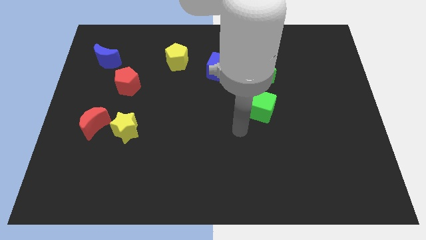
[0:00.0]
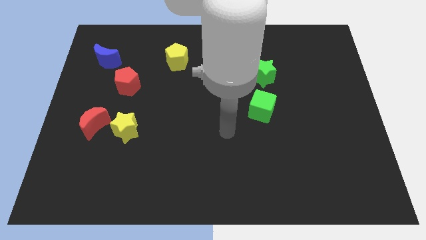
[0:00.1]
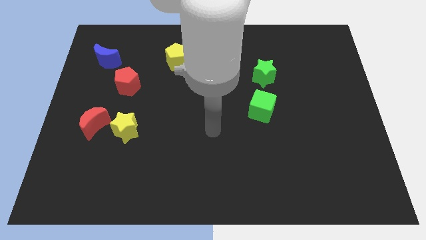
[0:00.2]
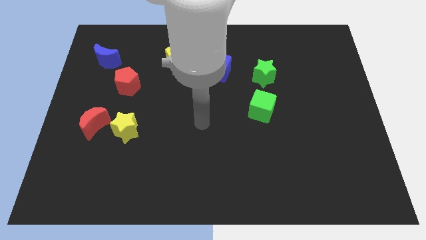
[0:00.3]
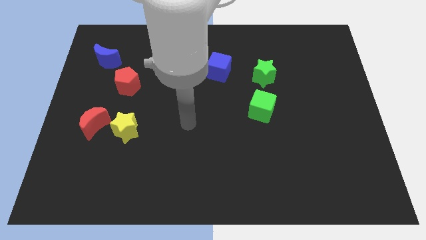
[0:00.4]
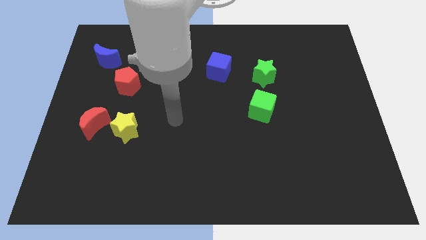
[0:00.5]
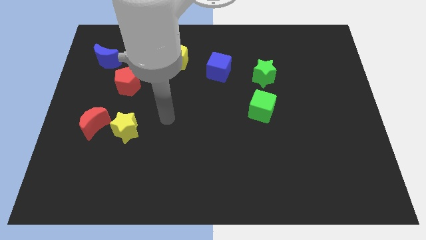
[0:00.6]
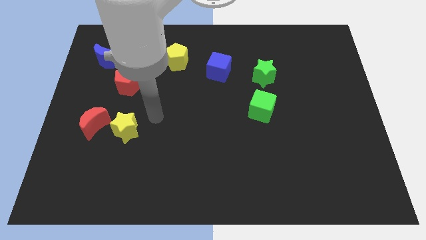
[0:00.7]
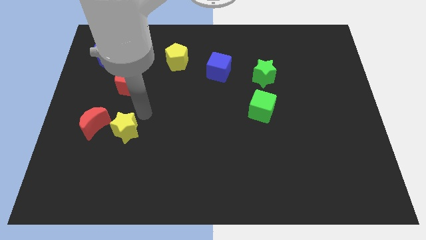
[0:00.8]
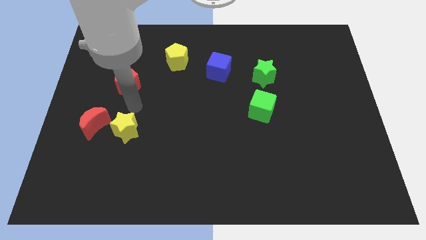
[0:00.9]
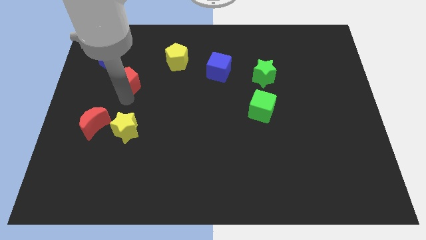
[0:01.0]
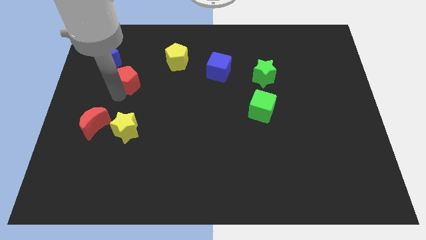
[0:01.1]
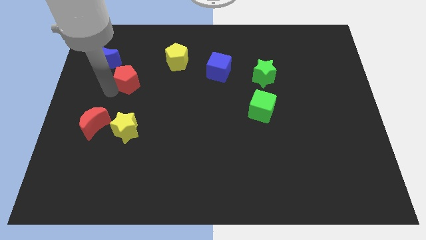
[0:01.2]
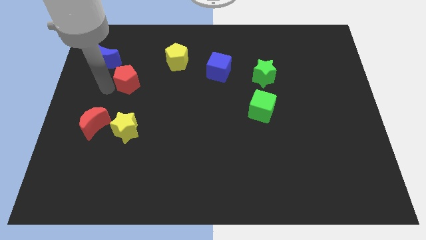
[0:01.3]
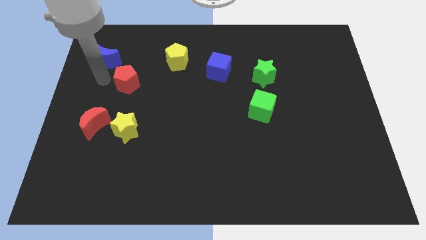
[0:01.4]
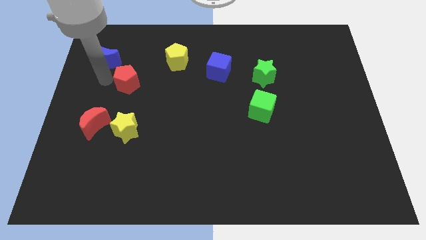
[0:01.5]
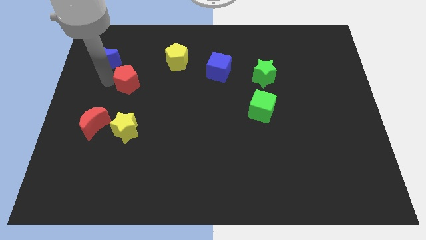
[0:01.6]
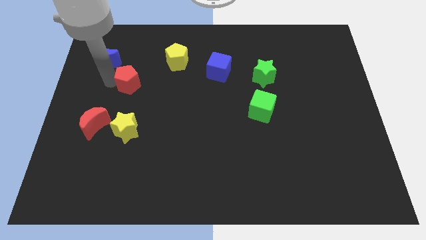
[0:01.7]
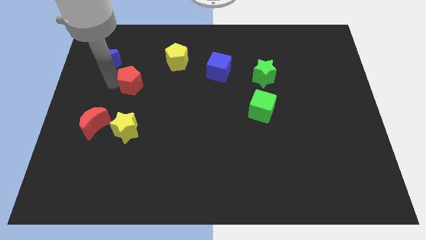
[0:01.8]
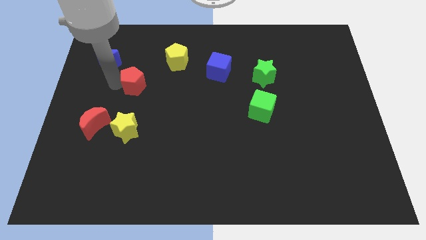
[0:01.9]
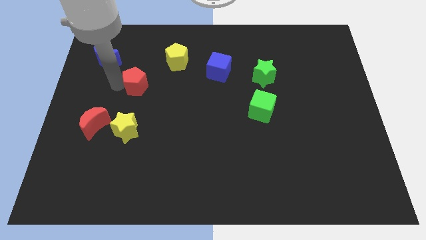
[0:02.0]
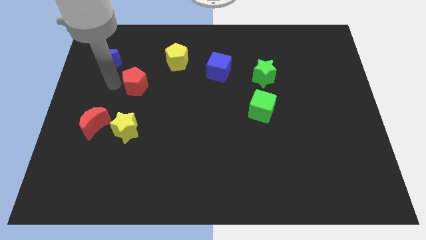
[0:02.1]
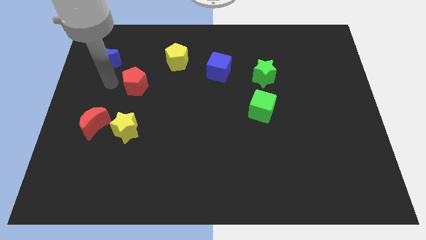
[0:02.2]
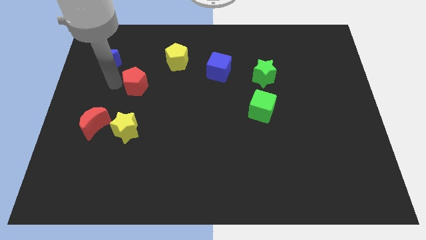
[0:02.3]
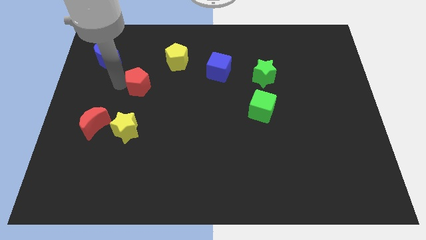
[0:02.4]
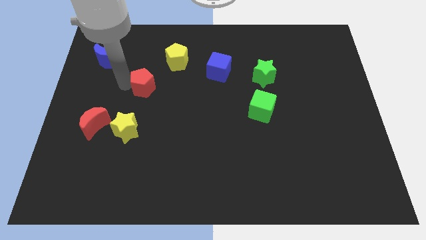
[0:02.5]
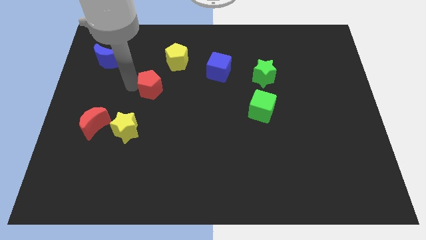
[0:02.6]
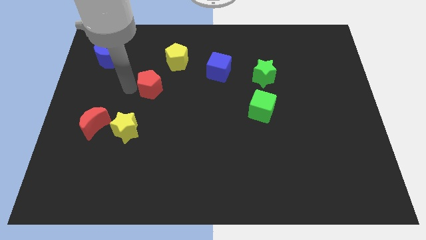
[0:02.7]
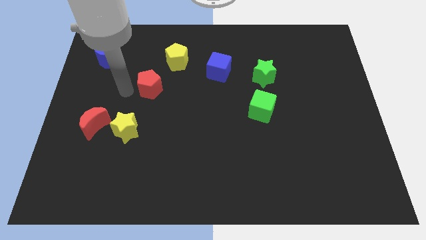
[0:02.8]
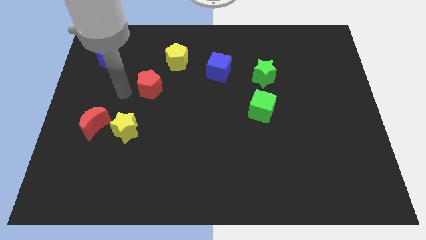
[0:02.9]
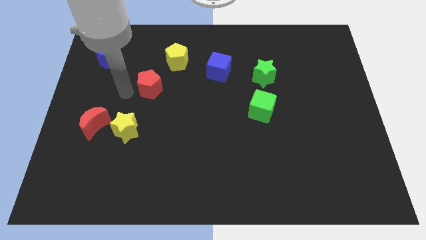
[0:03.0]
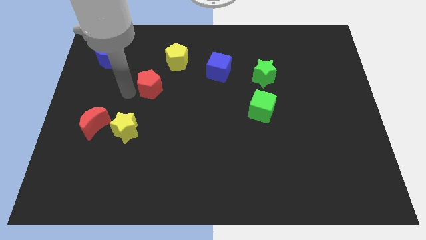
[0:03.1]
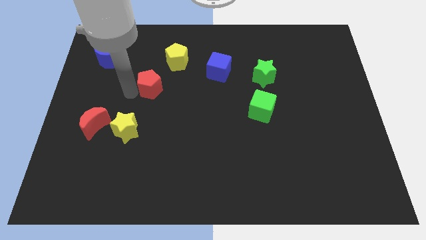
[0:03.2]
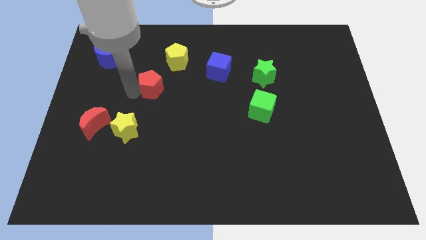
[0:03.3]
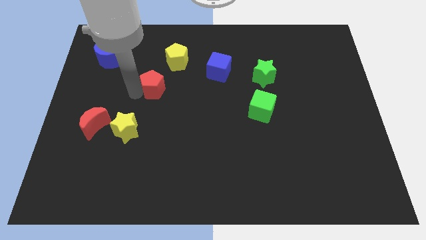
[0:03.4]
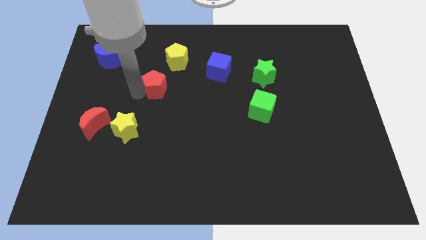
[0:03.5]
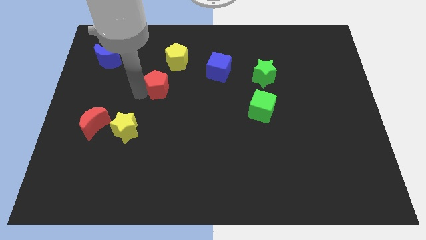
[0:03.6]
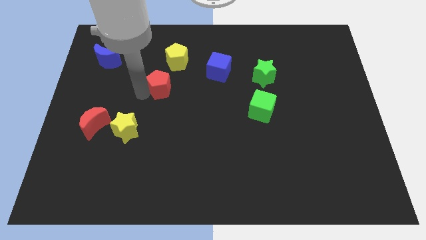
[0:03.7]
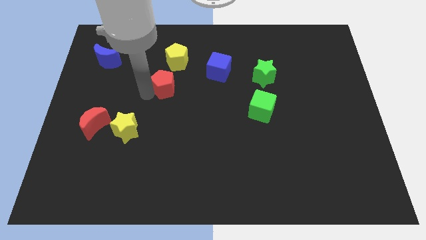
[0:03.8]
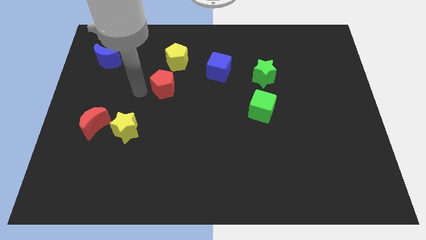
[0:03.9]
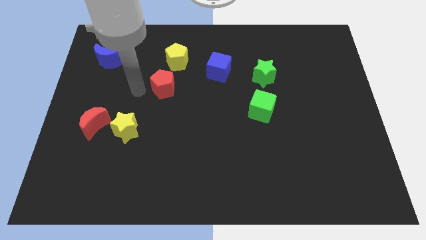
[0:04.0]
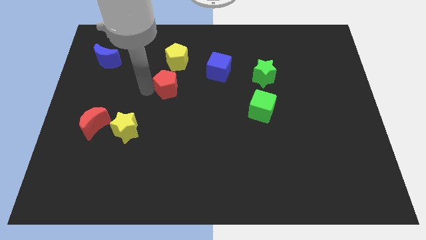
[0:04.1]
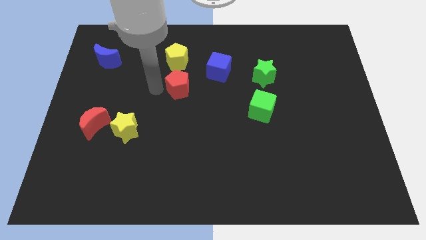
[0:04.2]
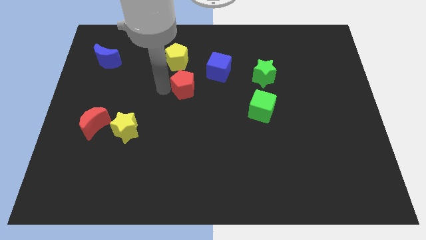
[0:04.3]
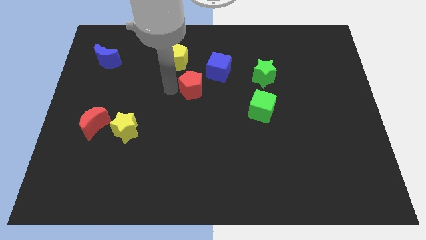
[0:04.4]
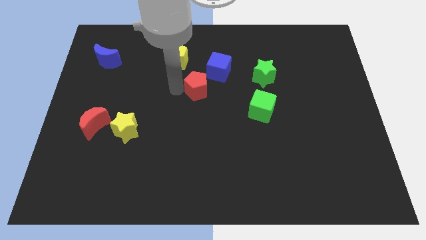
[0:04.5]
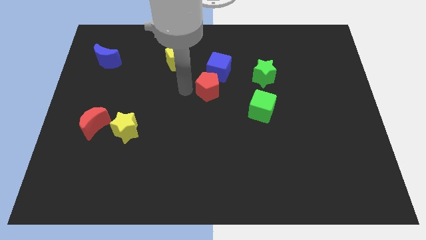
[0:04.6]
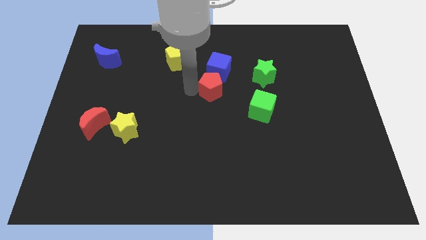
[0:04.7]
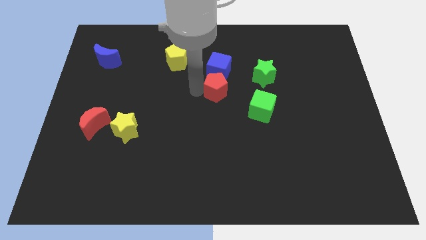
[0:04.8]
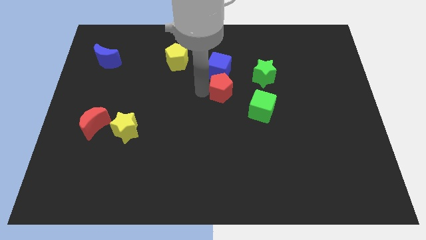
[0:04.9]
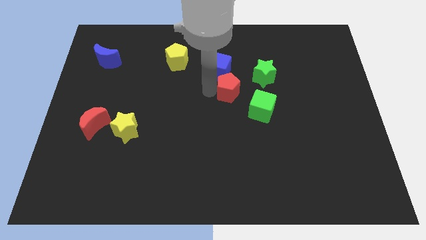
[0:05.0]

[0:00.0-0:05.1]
put the red pentagon to the bottom left of the green star

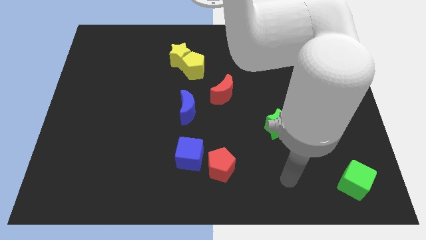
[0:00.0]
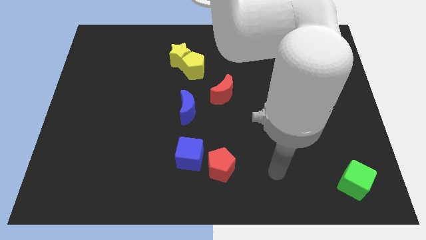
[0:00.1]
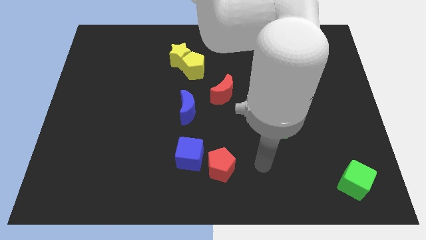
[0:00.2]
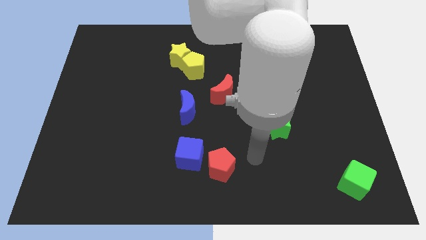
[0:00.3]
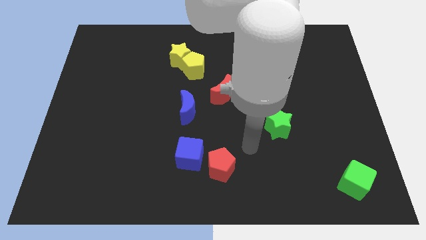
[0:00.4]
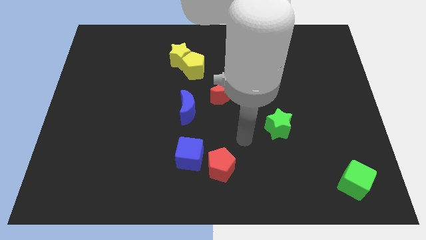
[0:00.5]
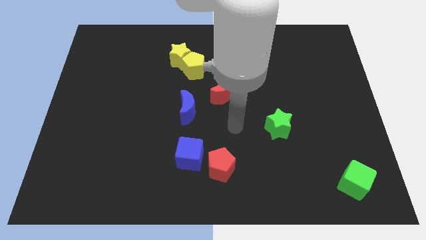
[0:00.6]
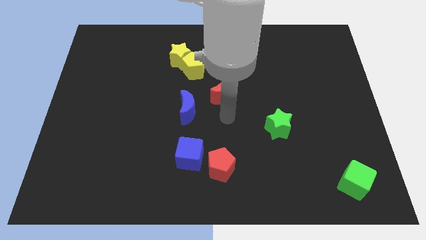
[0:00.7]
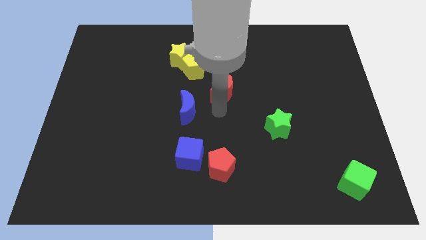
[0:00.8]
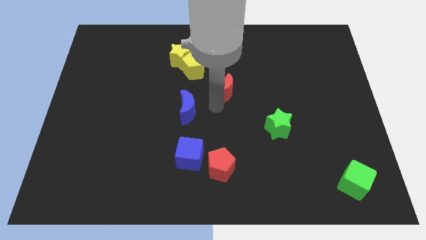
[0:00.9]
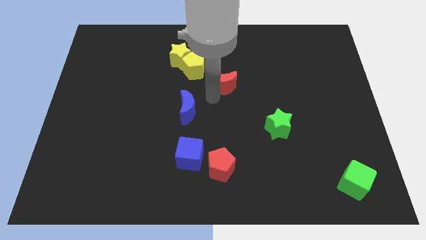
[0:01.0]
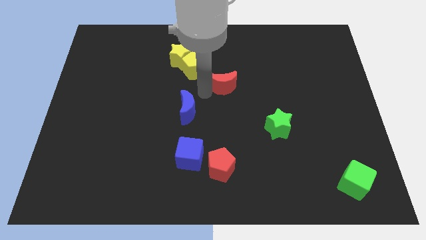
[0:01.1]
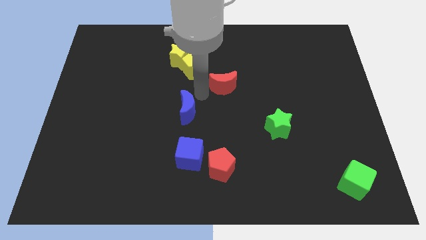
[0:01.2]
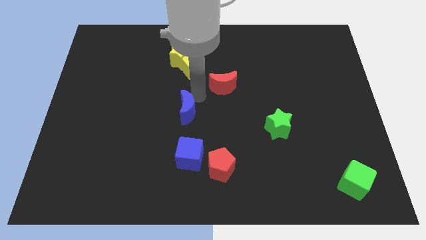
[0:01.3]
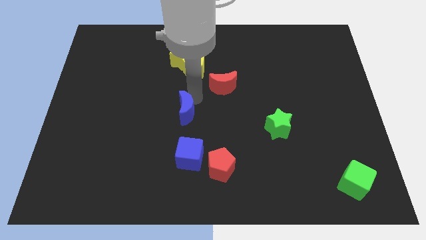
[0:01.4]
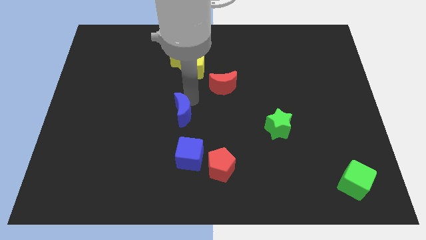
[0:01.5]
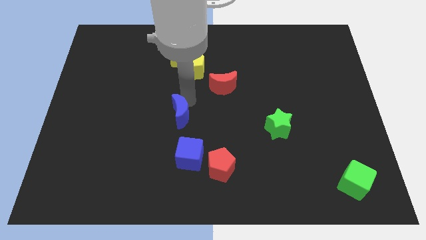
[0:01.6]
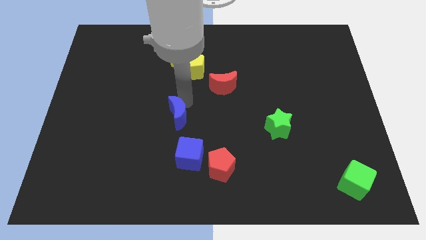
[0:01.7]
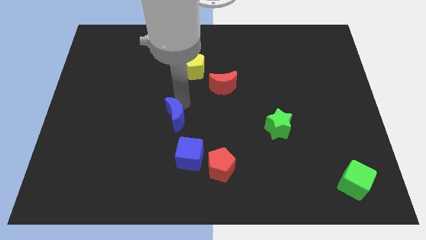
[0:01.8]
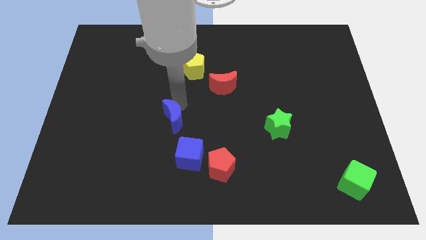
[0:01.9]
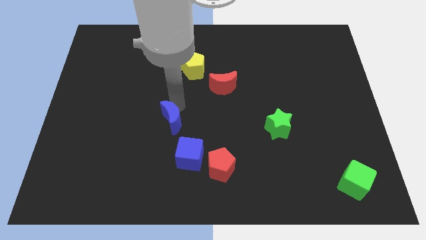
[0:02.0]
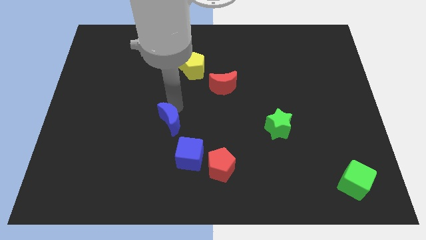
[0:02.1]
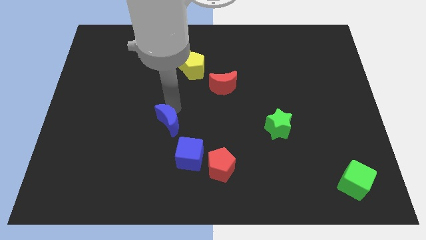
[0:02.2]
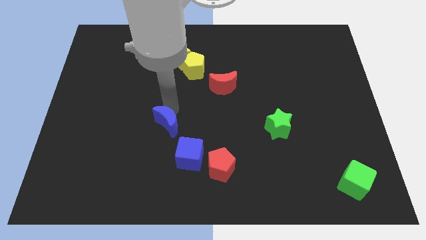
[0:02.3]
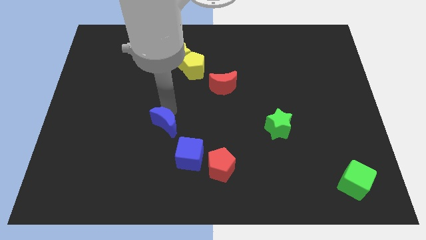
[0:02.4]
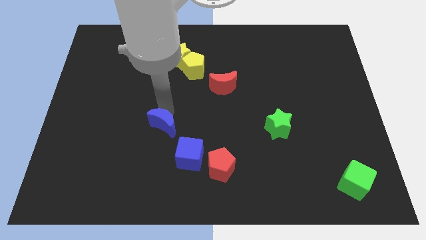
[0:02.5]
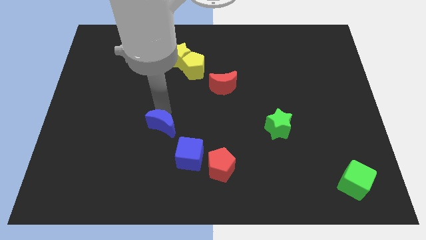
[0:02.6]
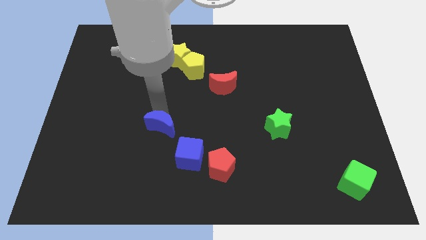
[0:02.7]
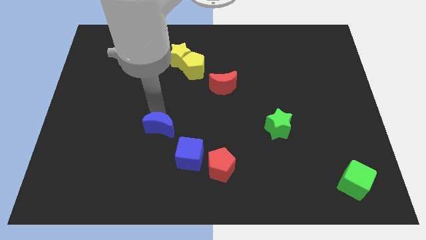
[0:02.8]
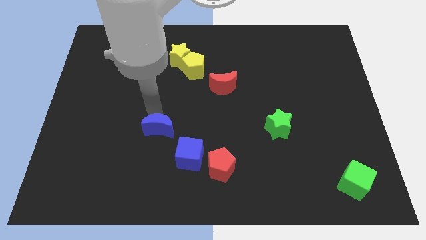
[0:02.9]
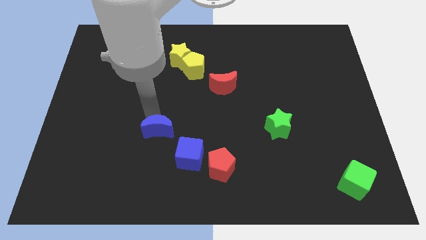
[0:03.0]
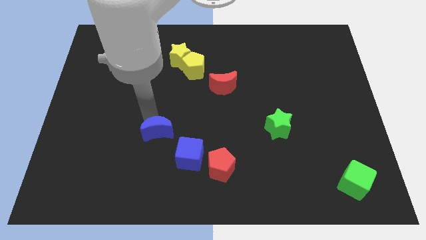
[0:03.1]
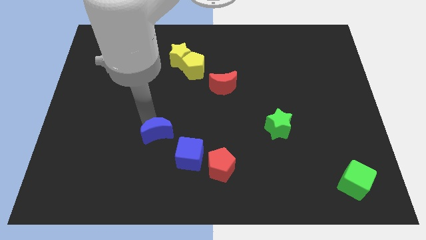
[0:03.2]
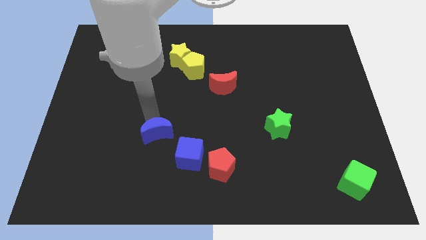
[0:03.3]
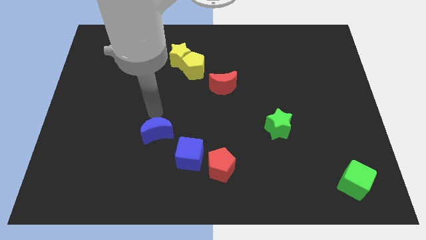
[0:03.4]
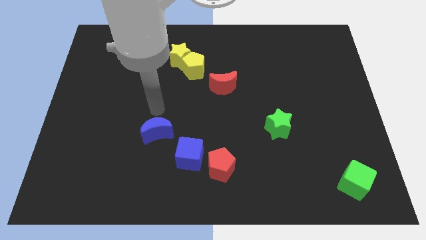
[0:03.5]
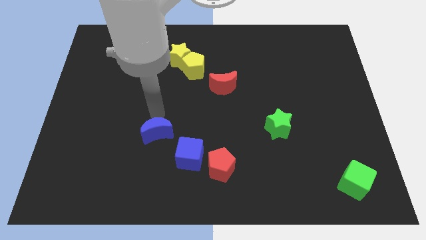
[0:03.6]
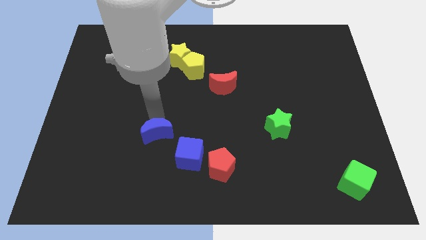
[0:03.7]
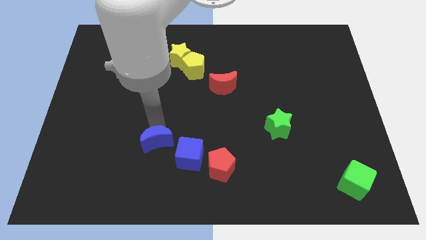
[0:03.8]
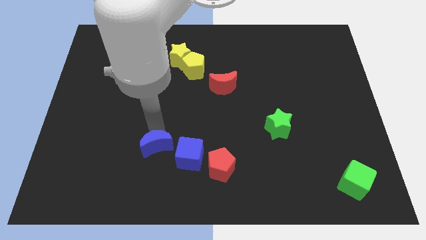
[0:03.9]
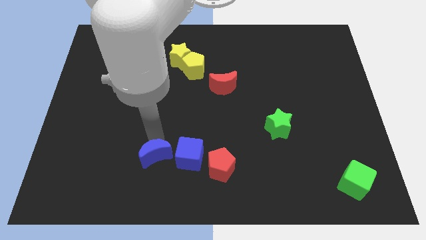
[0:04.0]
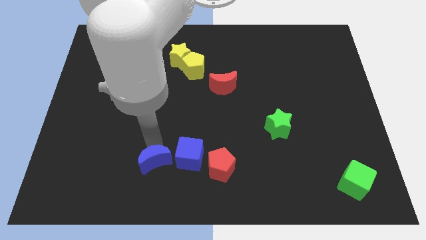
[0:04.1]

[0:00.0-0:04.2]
slide the blue moon to the bottom left of the blue cube
